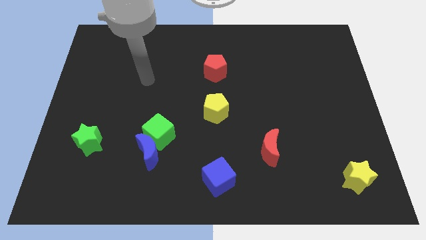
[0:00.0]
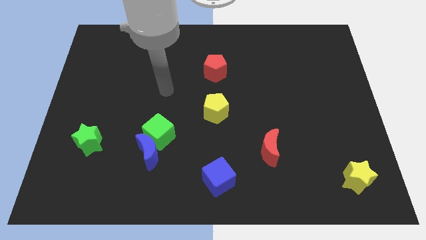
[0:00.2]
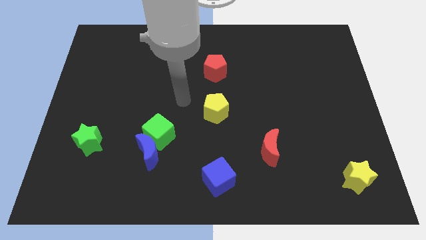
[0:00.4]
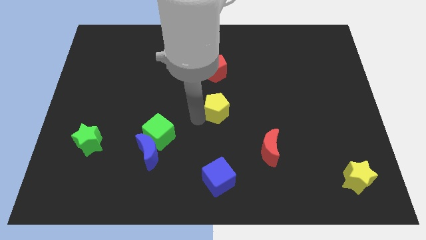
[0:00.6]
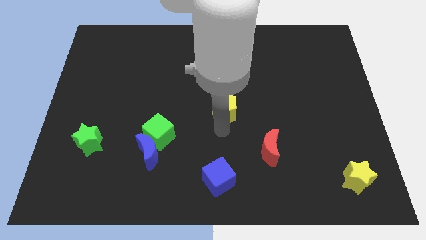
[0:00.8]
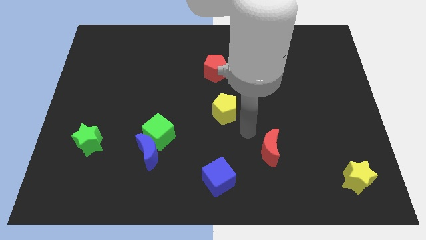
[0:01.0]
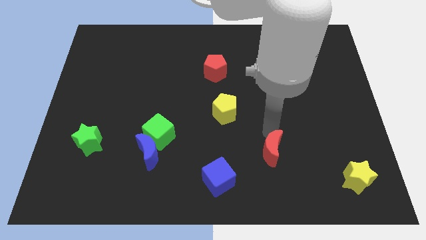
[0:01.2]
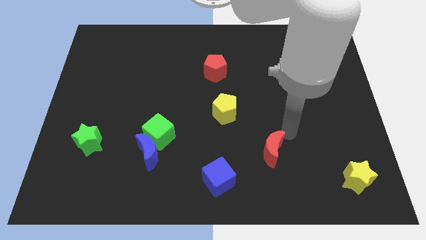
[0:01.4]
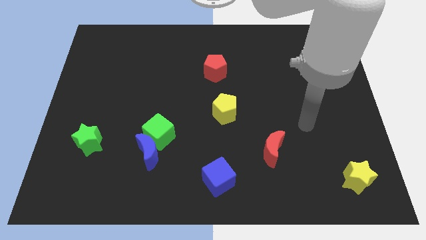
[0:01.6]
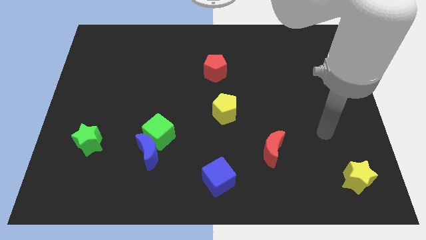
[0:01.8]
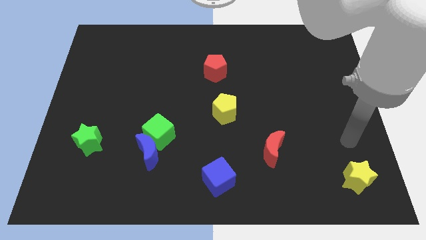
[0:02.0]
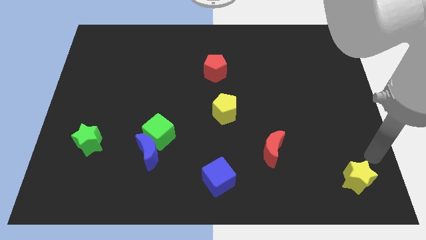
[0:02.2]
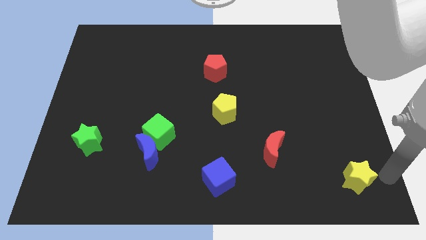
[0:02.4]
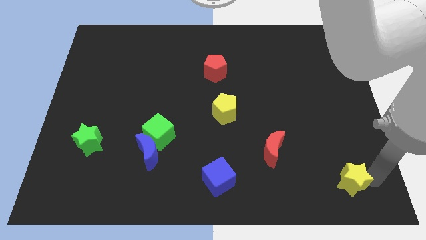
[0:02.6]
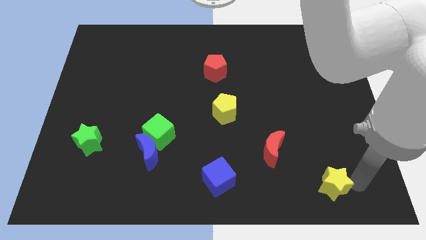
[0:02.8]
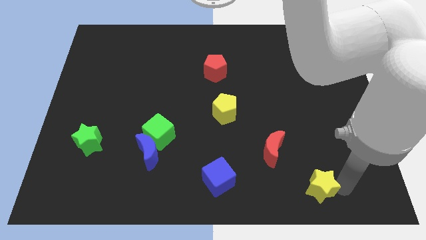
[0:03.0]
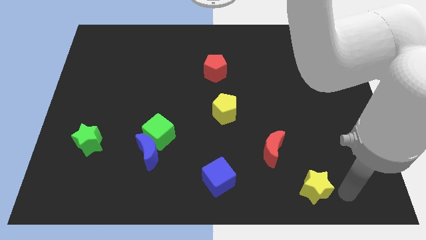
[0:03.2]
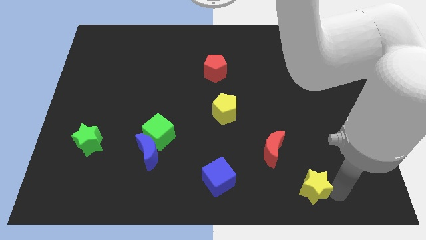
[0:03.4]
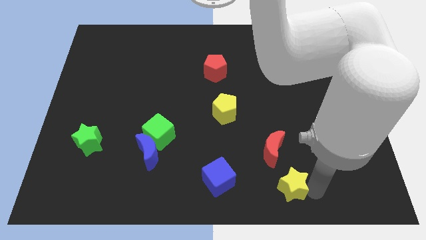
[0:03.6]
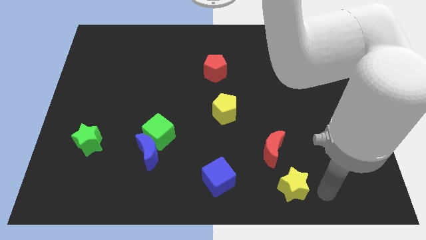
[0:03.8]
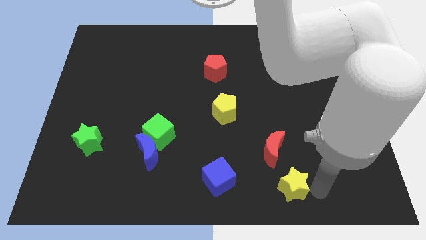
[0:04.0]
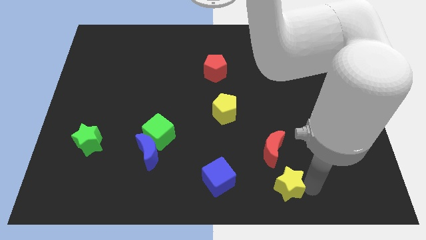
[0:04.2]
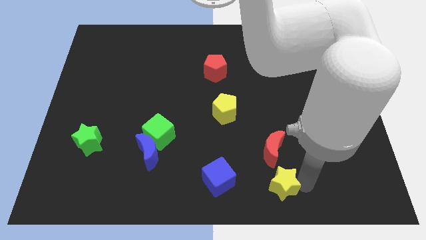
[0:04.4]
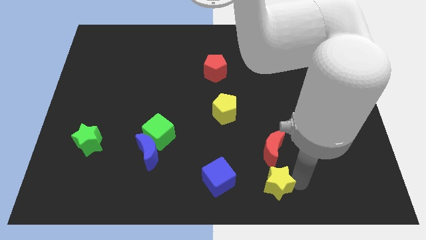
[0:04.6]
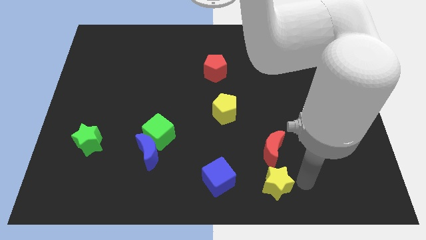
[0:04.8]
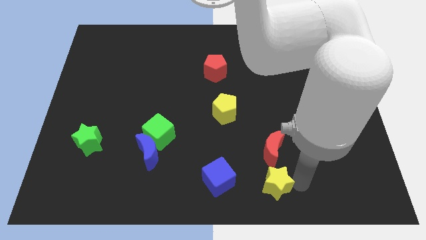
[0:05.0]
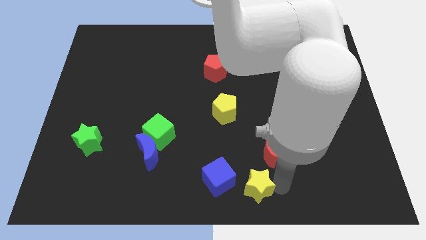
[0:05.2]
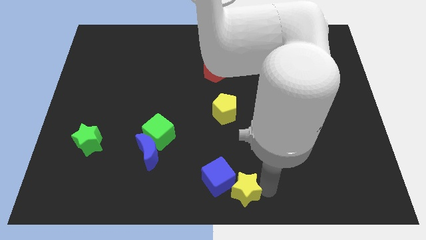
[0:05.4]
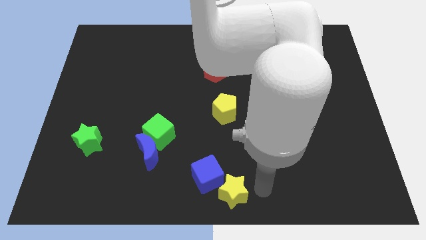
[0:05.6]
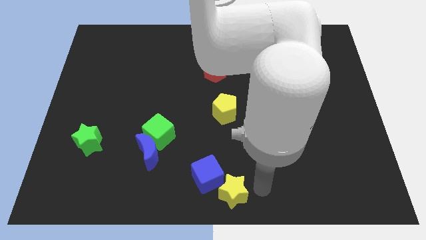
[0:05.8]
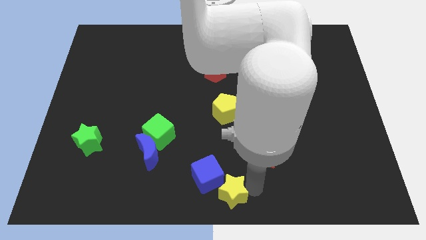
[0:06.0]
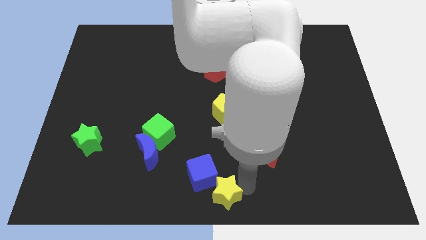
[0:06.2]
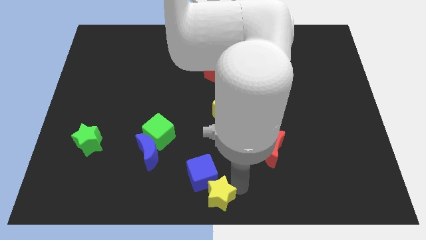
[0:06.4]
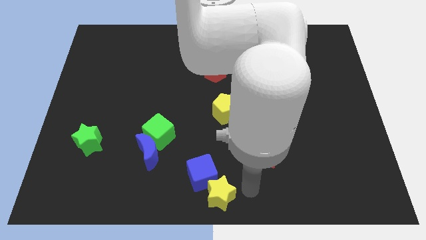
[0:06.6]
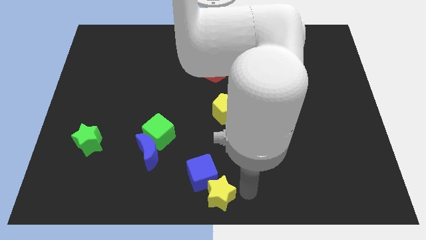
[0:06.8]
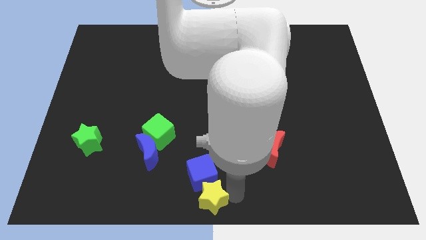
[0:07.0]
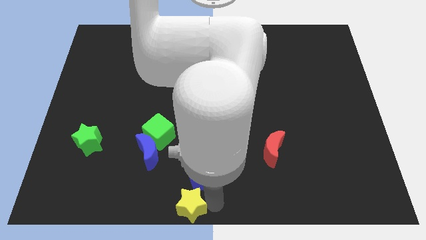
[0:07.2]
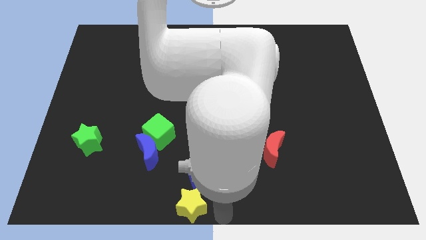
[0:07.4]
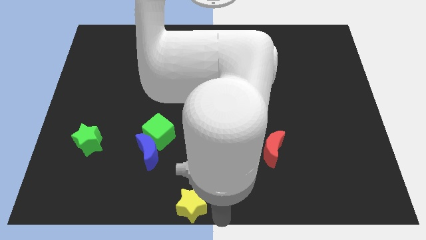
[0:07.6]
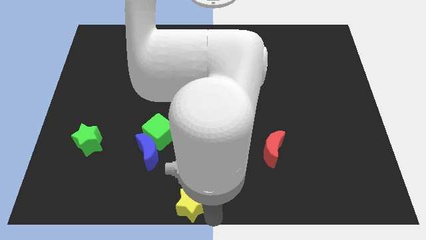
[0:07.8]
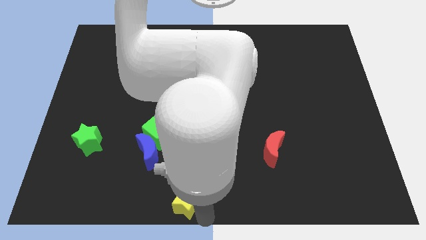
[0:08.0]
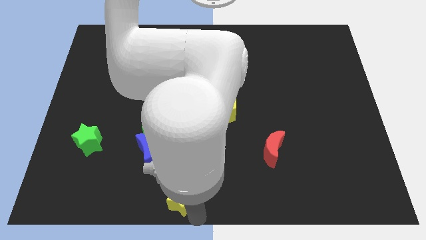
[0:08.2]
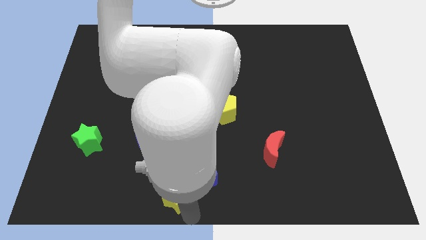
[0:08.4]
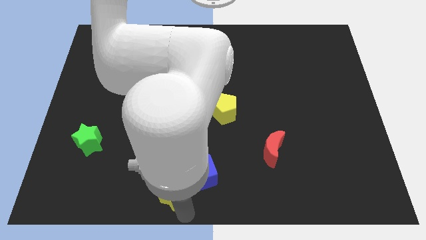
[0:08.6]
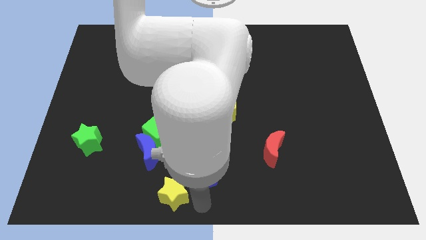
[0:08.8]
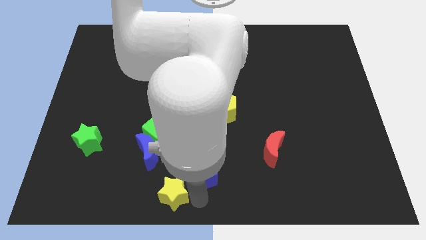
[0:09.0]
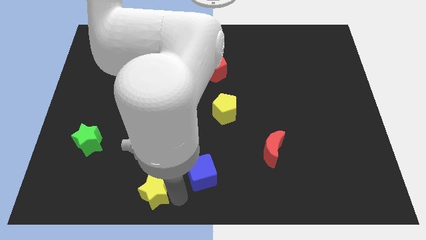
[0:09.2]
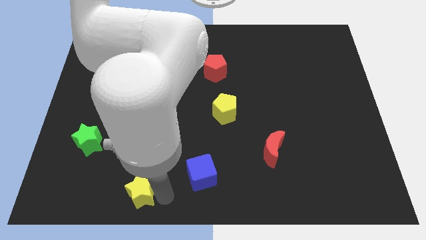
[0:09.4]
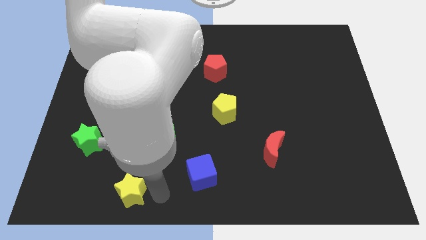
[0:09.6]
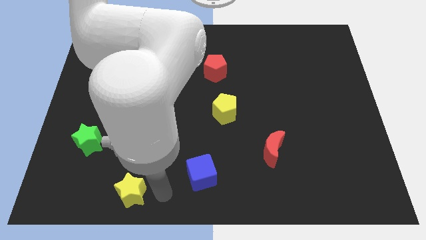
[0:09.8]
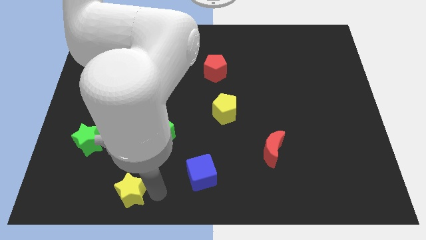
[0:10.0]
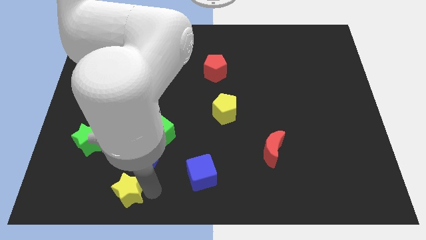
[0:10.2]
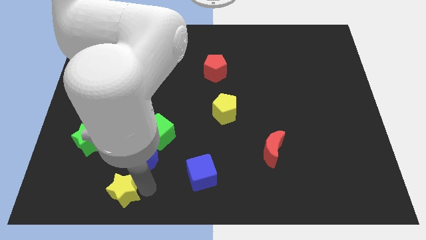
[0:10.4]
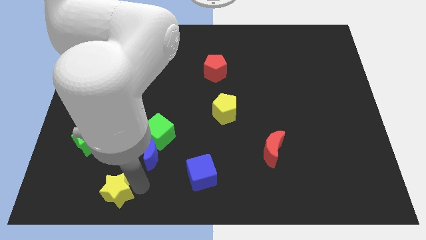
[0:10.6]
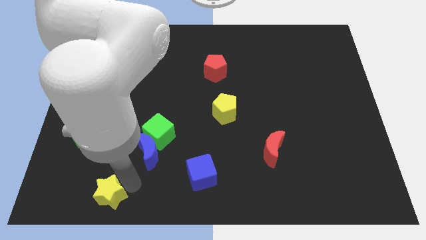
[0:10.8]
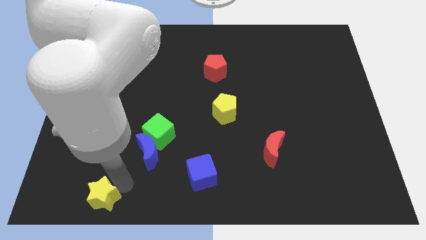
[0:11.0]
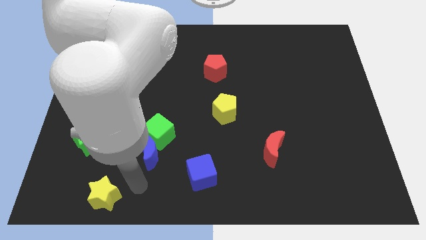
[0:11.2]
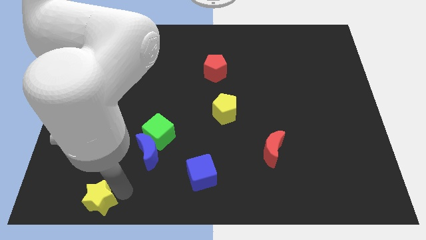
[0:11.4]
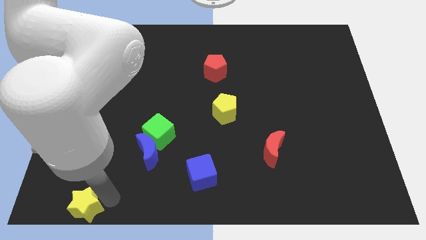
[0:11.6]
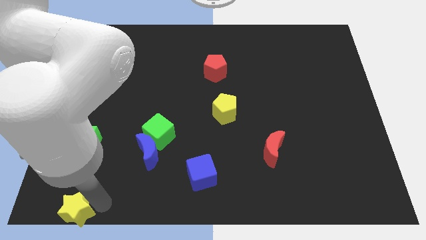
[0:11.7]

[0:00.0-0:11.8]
put the yellow star to the bottom left corner

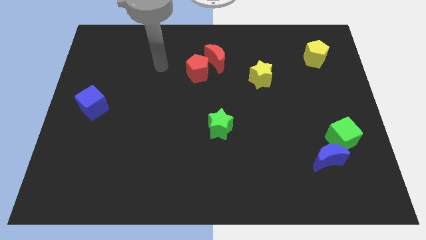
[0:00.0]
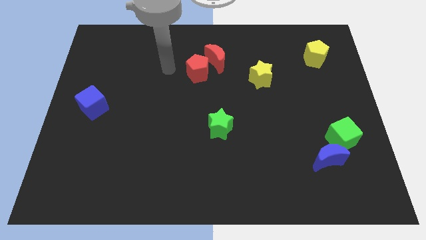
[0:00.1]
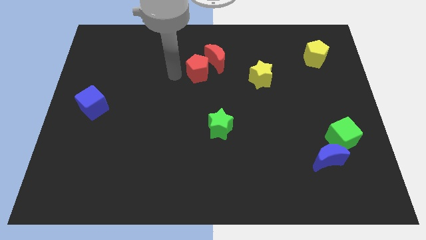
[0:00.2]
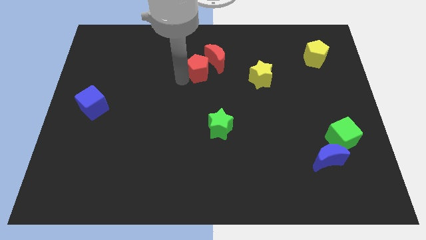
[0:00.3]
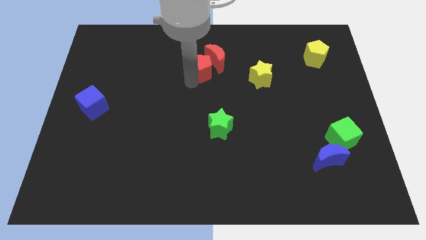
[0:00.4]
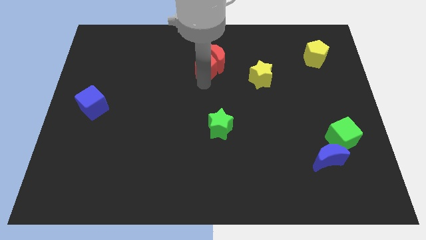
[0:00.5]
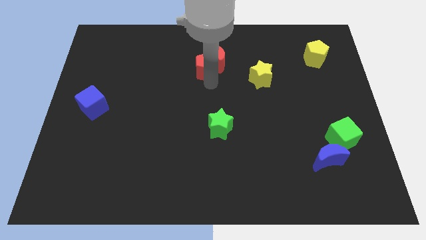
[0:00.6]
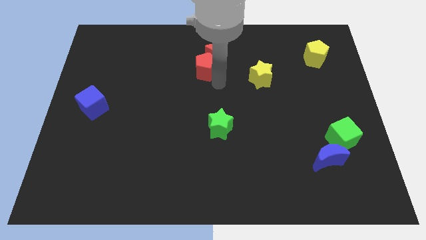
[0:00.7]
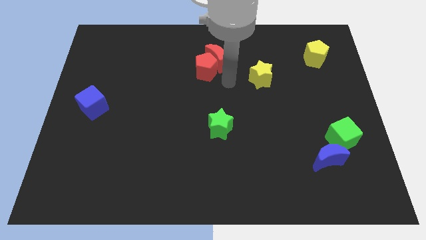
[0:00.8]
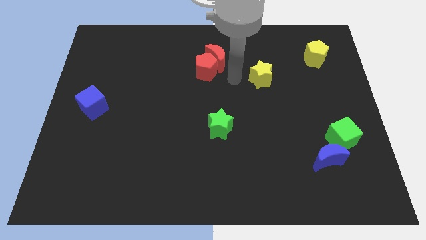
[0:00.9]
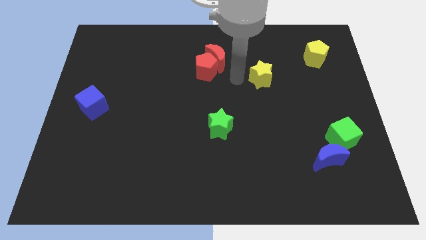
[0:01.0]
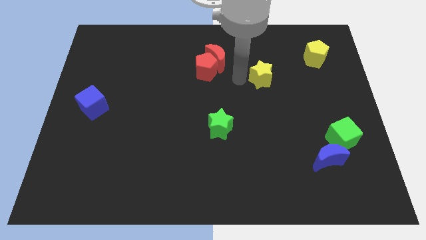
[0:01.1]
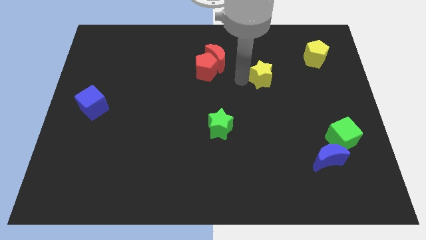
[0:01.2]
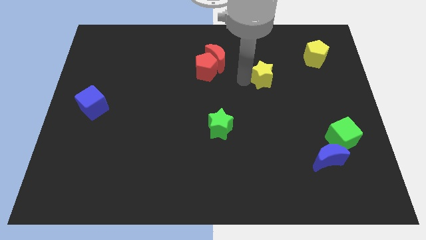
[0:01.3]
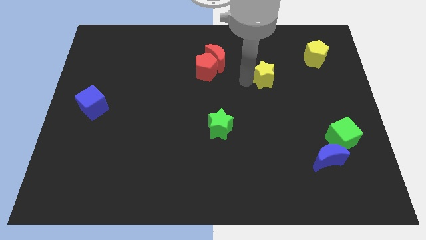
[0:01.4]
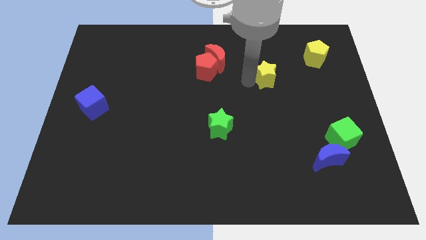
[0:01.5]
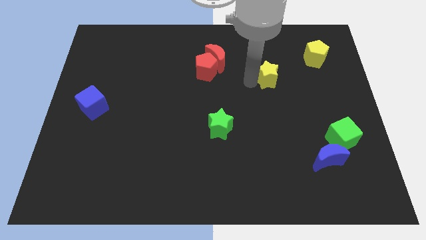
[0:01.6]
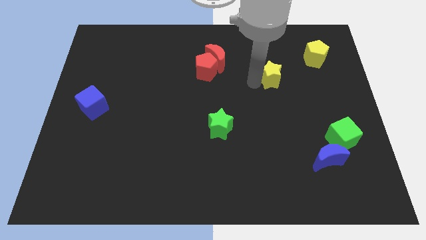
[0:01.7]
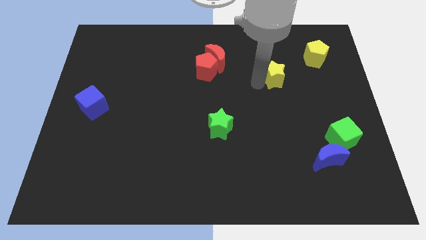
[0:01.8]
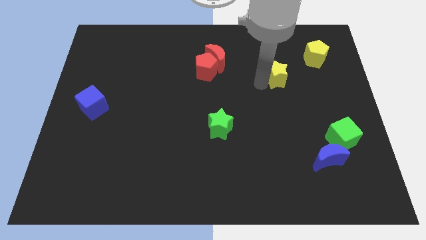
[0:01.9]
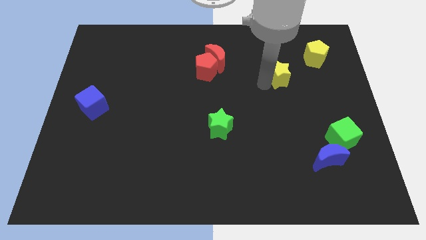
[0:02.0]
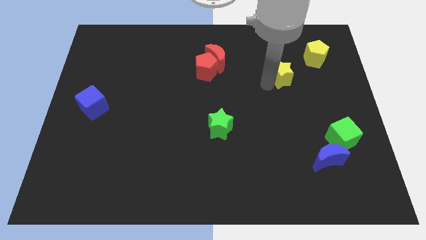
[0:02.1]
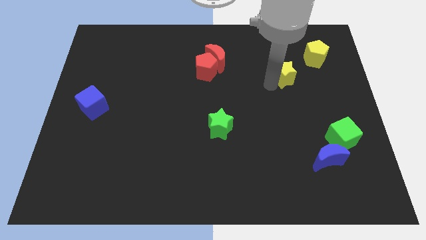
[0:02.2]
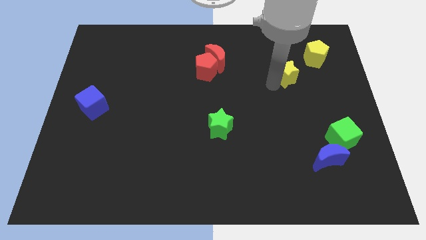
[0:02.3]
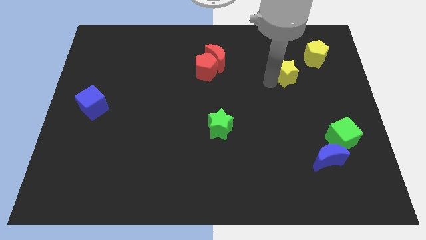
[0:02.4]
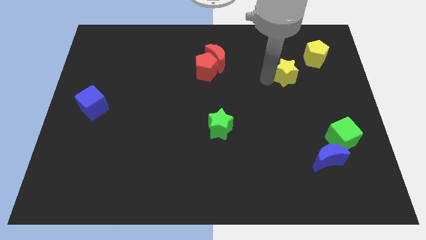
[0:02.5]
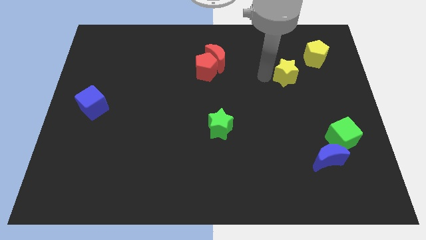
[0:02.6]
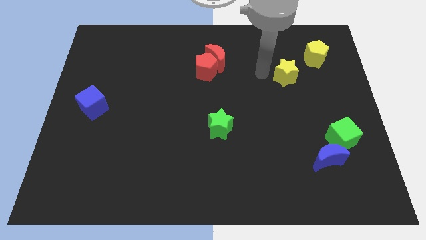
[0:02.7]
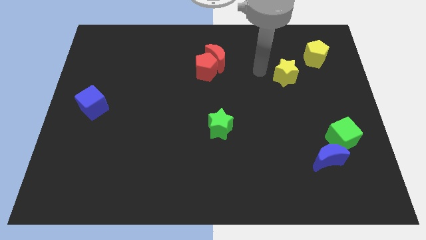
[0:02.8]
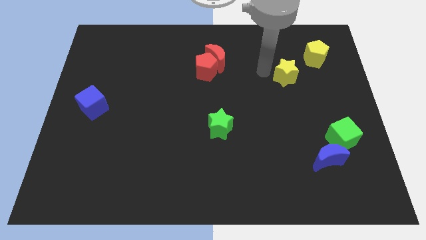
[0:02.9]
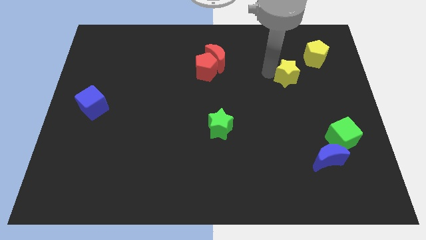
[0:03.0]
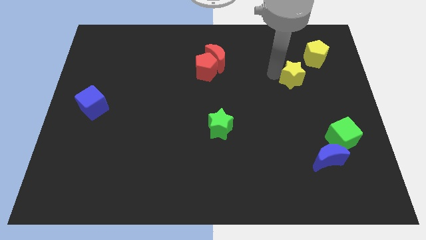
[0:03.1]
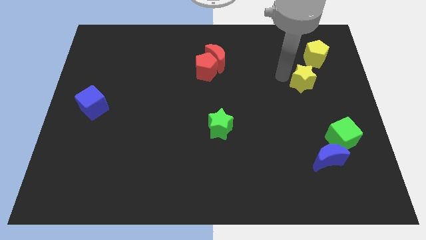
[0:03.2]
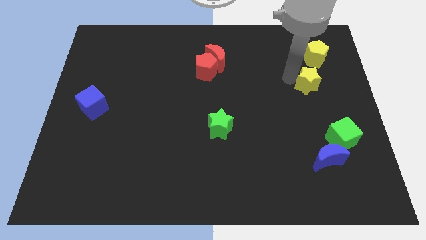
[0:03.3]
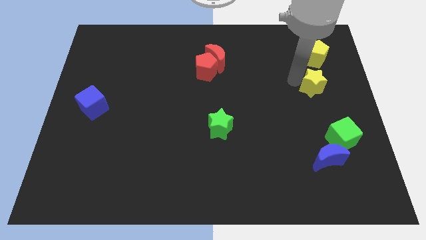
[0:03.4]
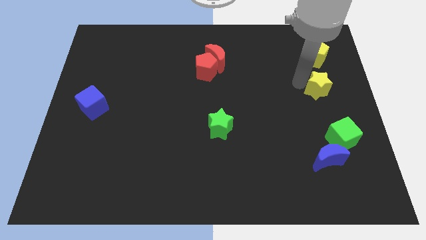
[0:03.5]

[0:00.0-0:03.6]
put the yellow star to the right side of the board
